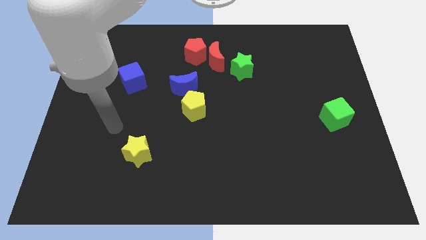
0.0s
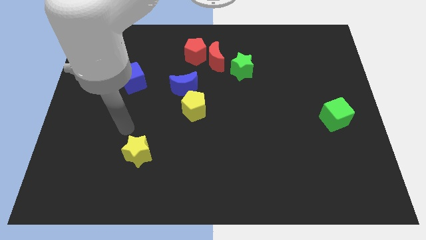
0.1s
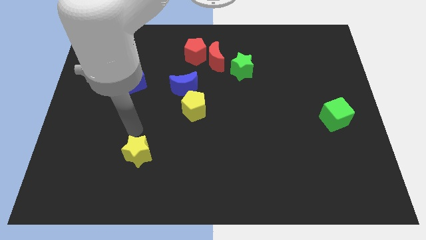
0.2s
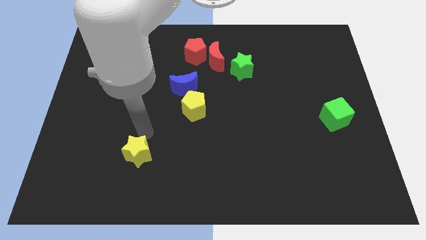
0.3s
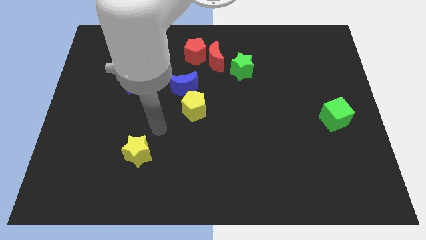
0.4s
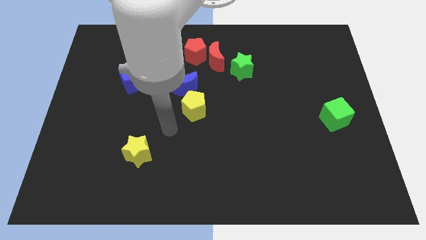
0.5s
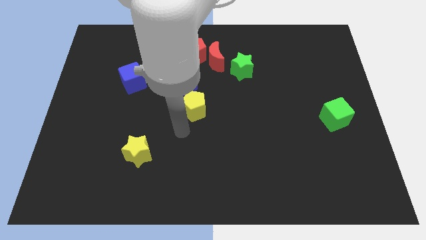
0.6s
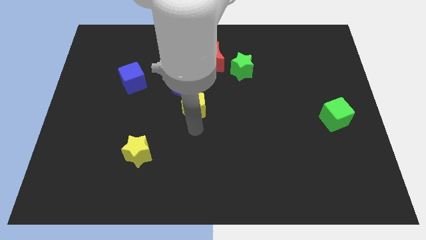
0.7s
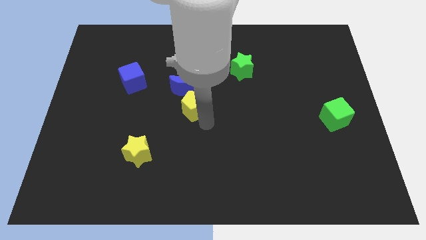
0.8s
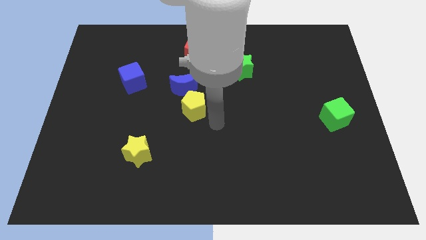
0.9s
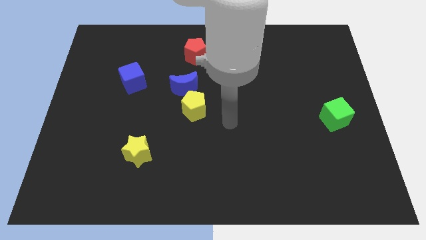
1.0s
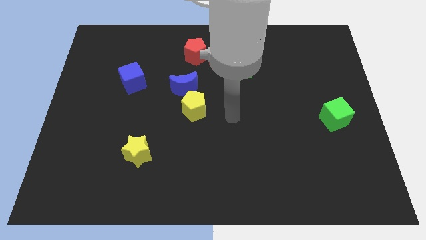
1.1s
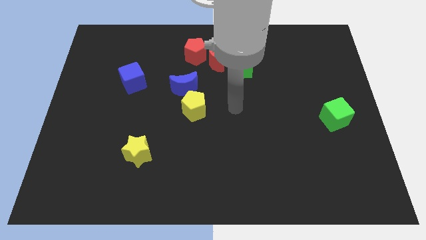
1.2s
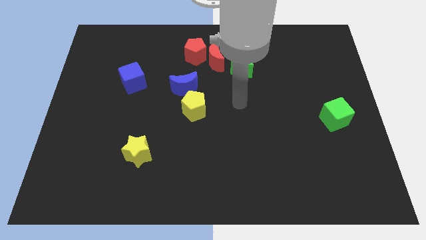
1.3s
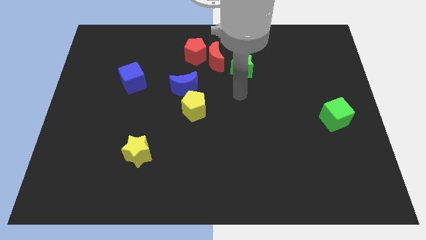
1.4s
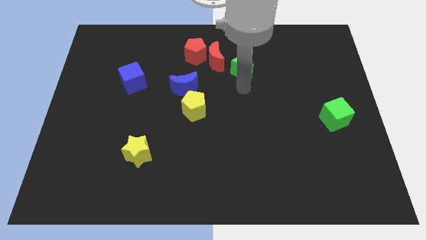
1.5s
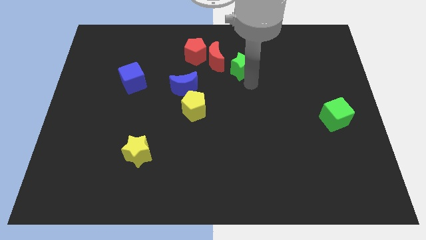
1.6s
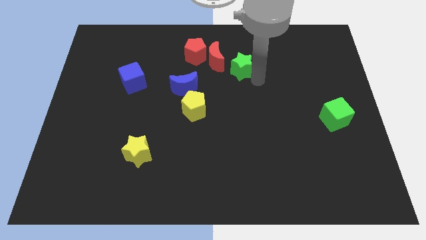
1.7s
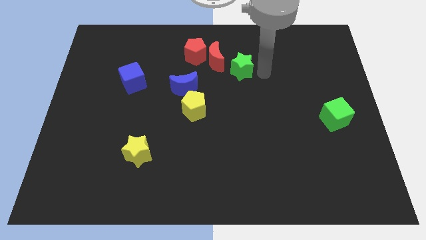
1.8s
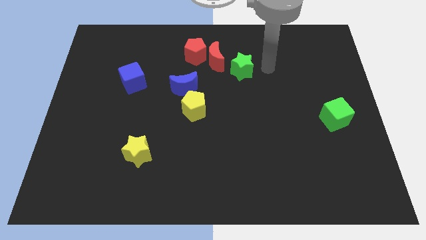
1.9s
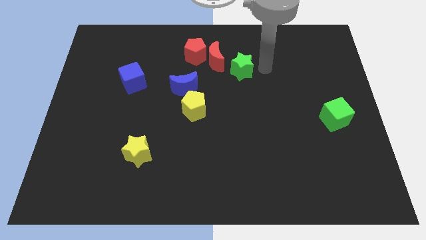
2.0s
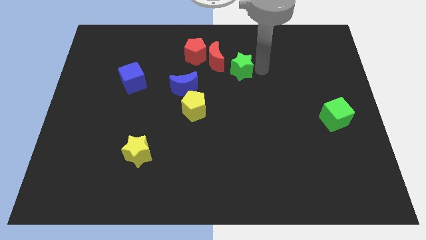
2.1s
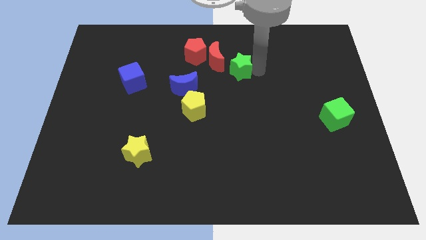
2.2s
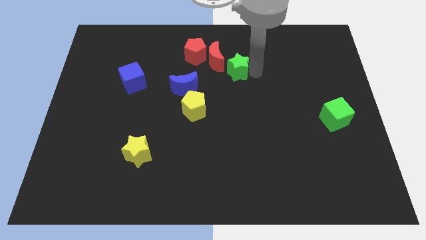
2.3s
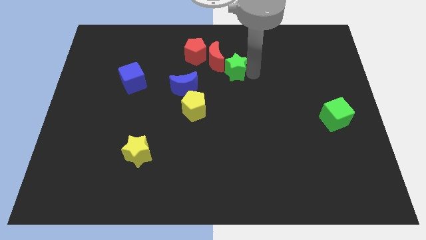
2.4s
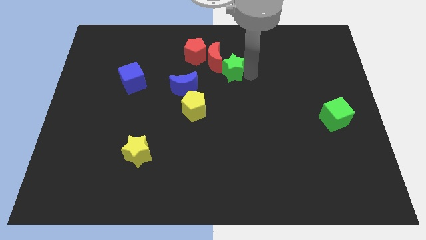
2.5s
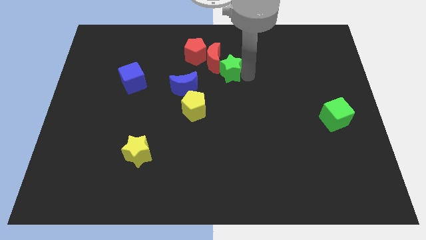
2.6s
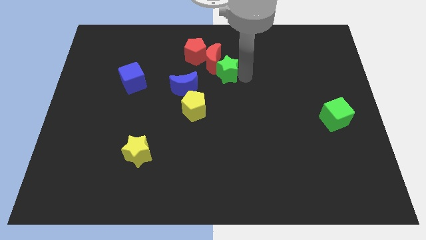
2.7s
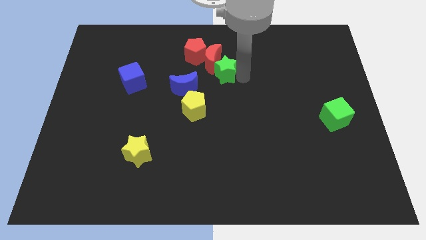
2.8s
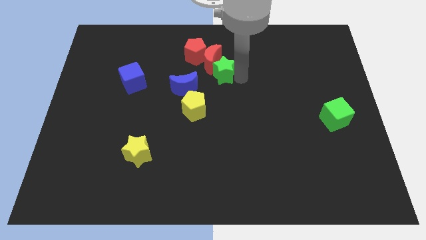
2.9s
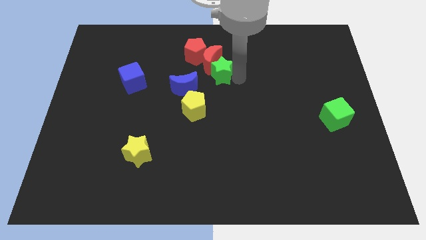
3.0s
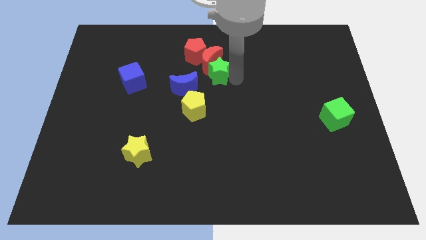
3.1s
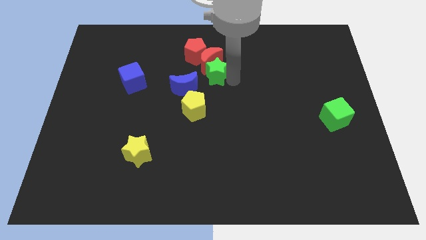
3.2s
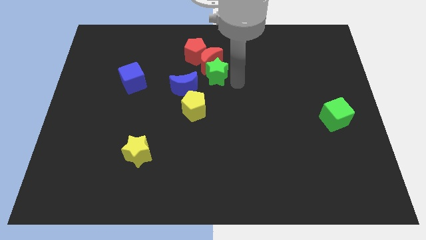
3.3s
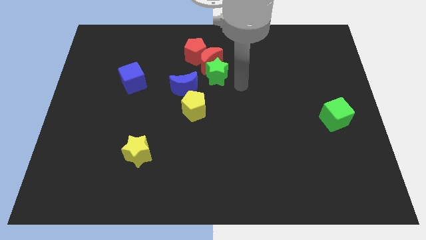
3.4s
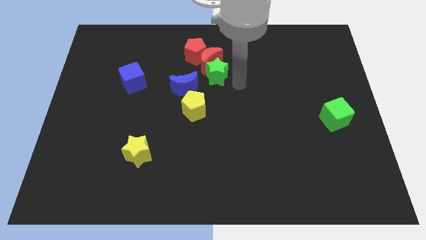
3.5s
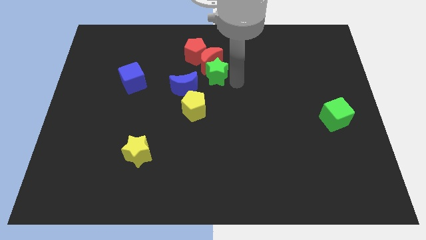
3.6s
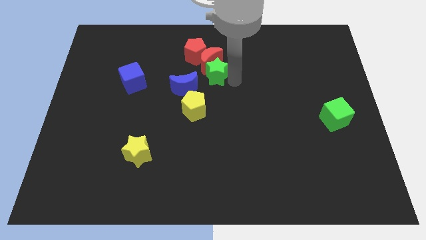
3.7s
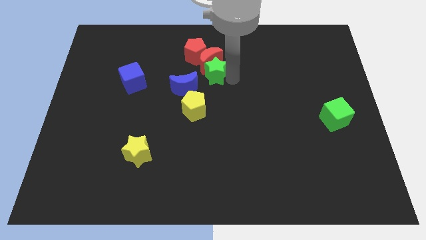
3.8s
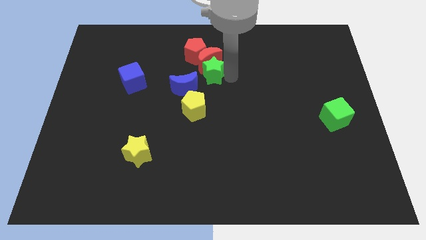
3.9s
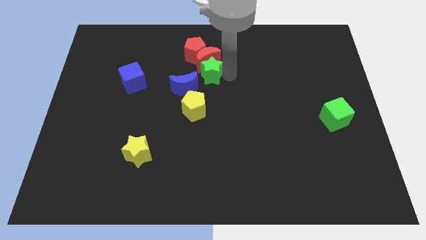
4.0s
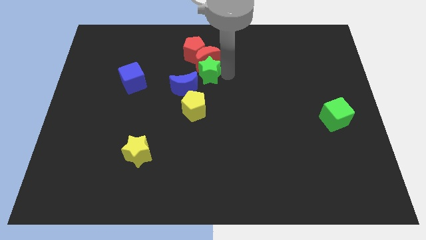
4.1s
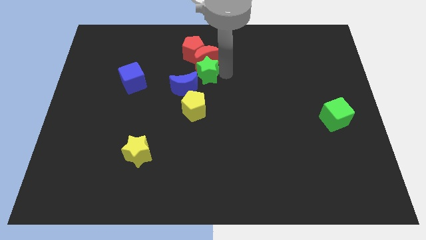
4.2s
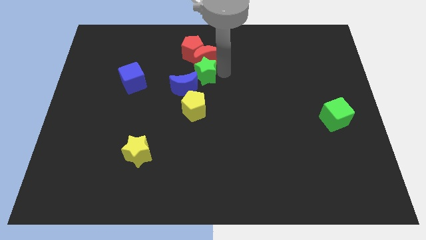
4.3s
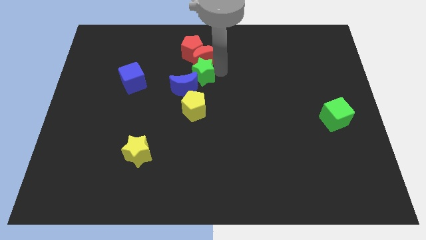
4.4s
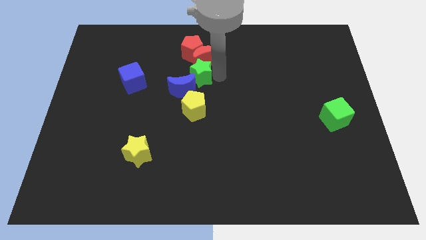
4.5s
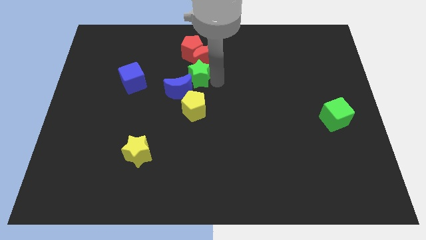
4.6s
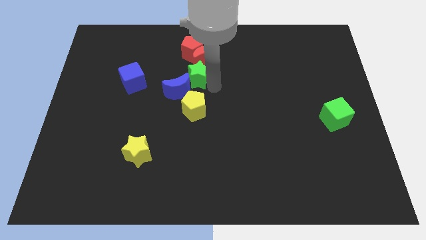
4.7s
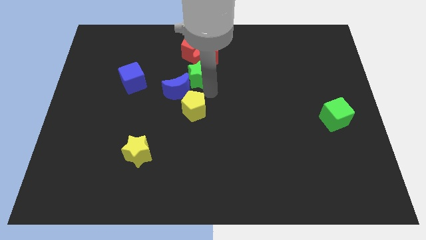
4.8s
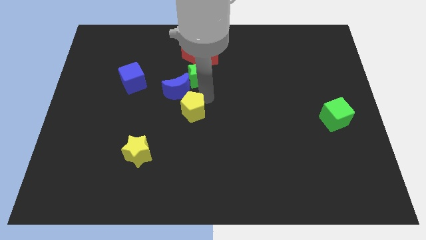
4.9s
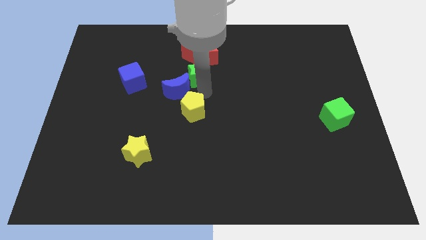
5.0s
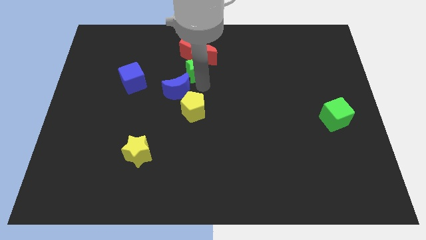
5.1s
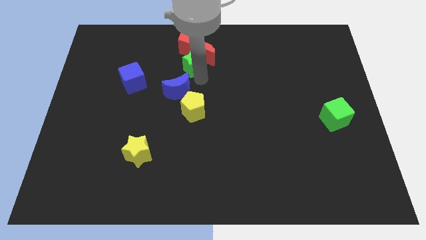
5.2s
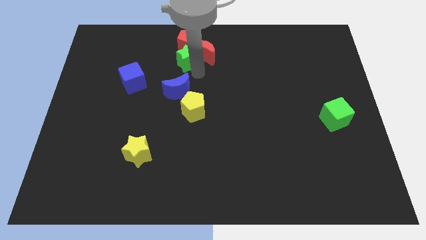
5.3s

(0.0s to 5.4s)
put the green star towards the red pentagon

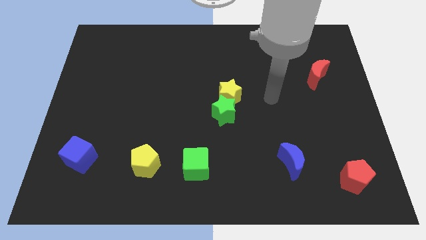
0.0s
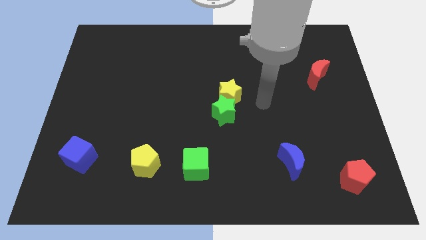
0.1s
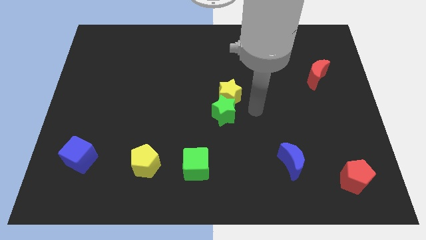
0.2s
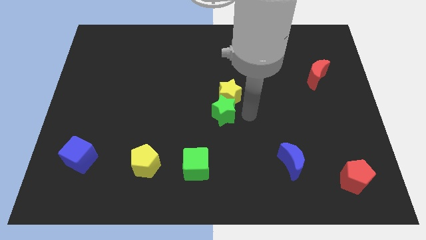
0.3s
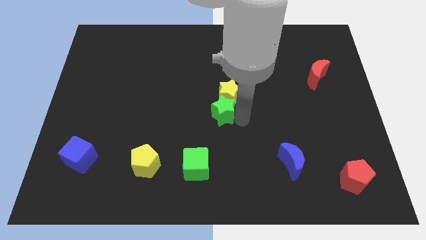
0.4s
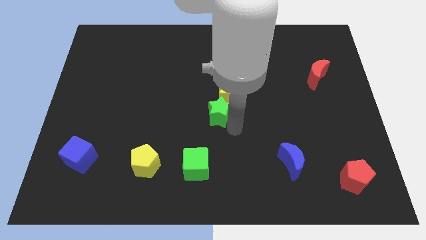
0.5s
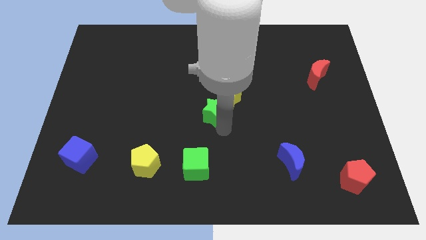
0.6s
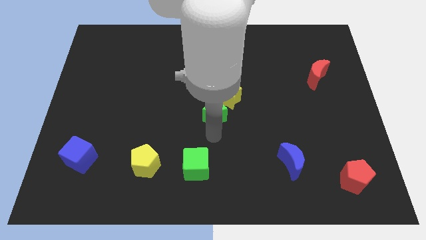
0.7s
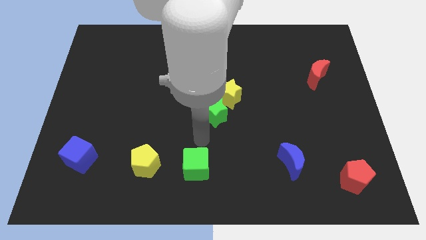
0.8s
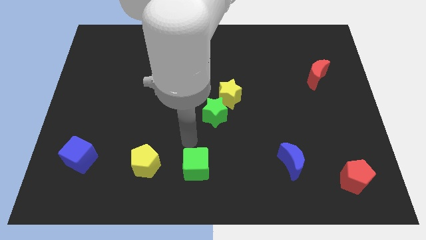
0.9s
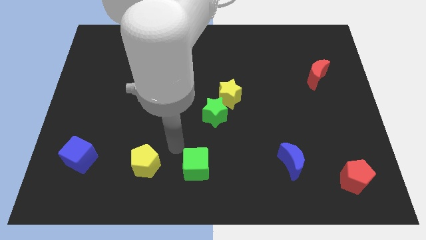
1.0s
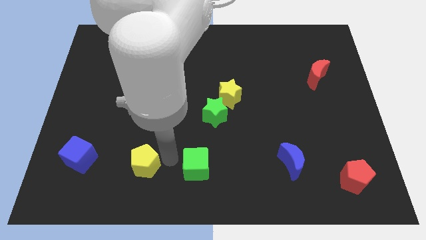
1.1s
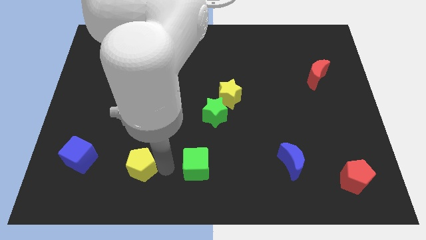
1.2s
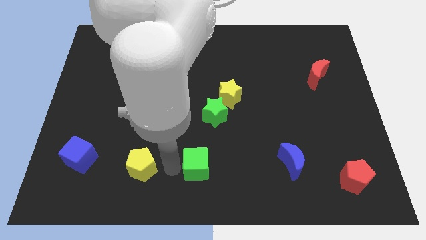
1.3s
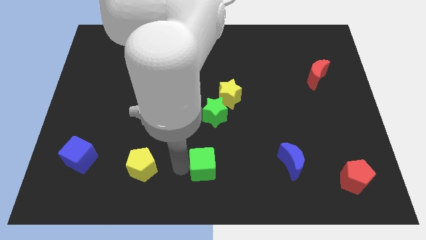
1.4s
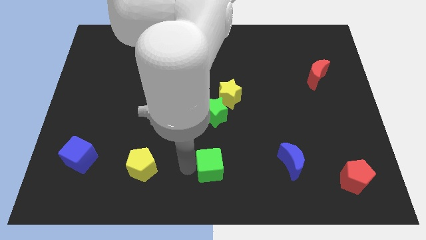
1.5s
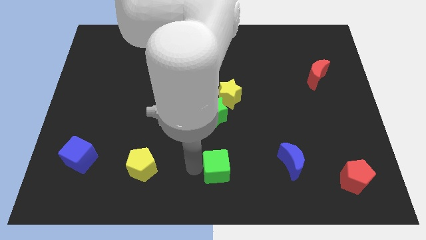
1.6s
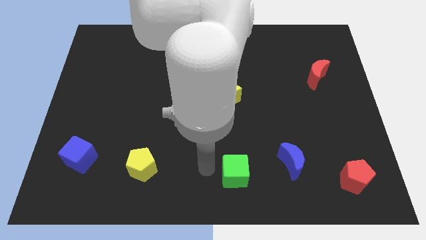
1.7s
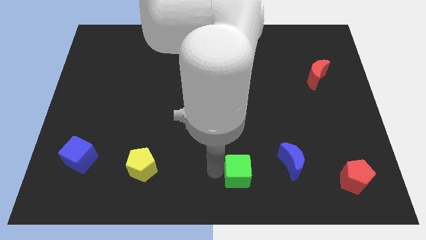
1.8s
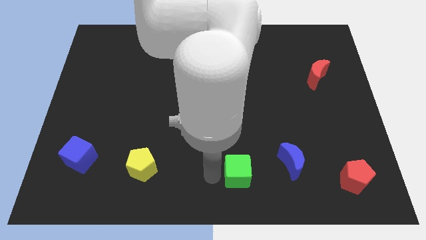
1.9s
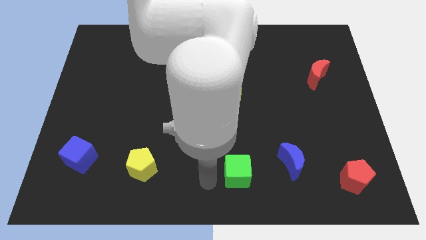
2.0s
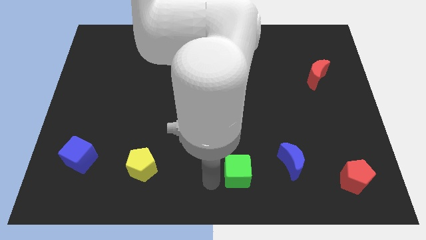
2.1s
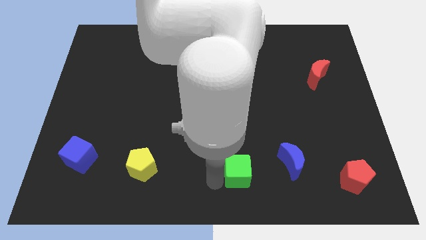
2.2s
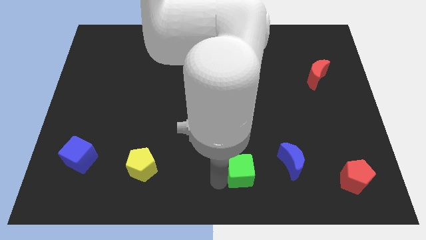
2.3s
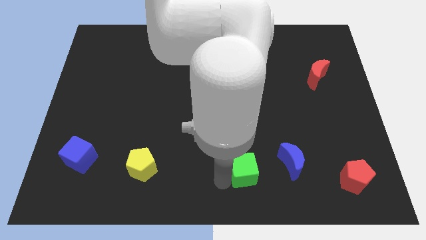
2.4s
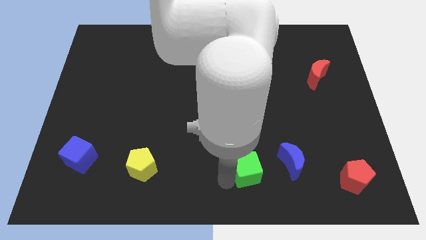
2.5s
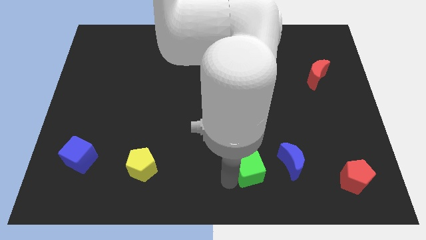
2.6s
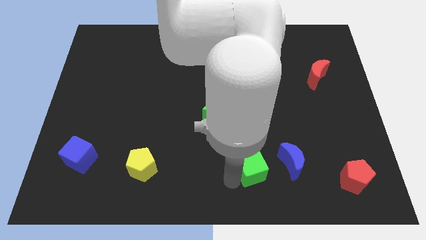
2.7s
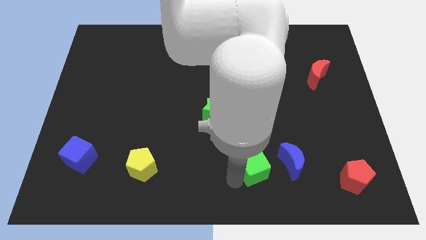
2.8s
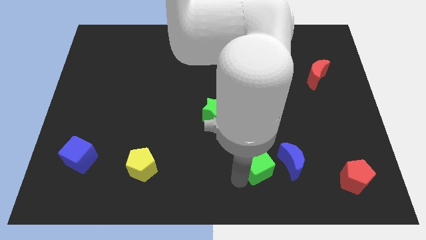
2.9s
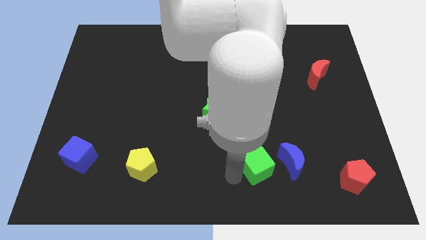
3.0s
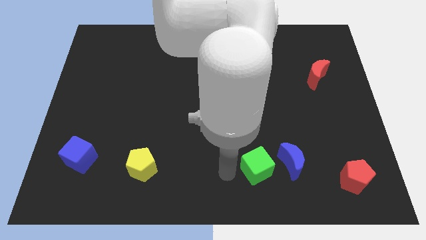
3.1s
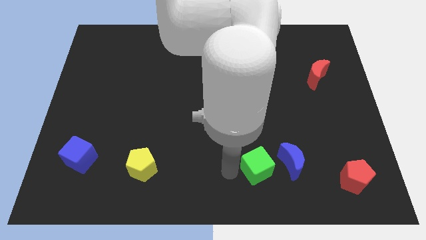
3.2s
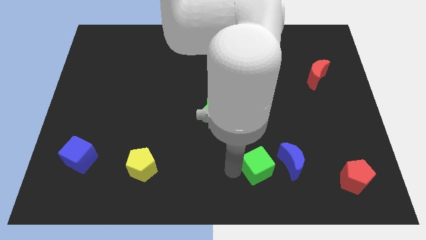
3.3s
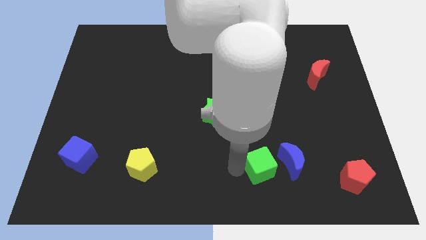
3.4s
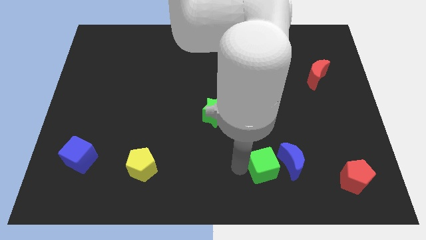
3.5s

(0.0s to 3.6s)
move the green cube next to the blue moon
